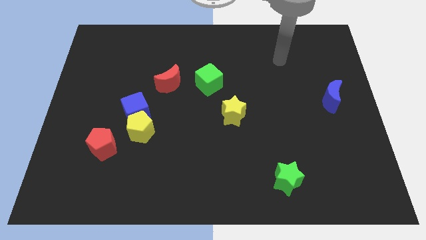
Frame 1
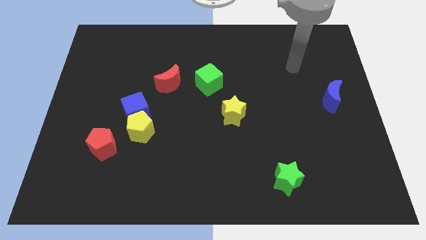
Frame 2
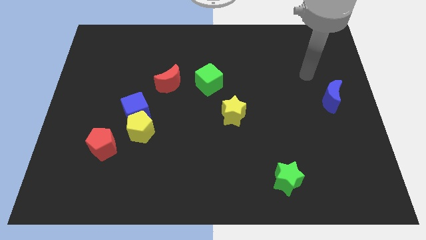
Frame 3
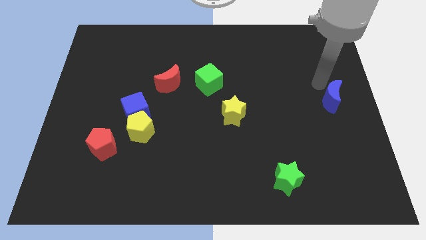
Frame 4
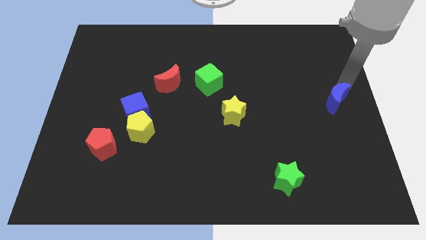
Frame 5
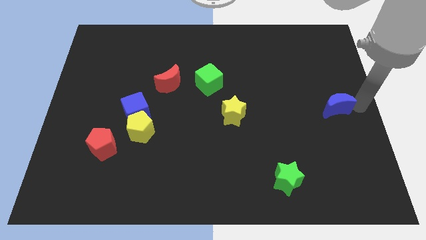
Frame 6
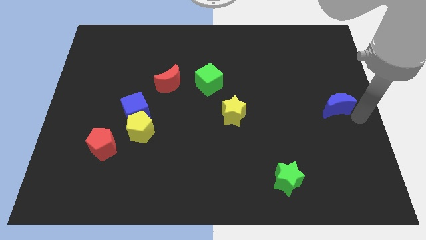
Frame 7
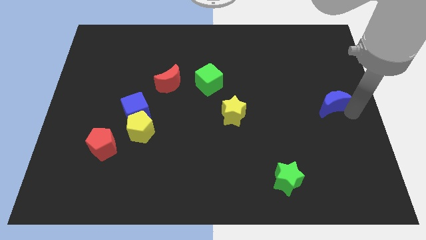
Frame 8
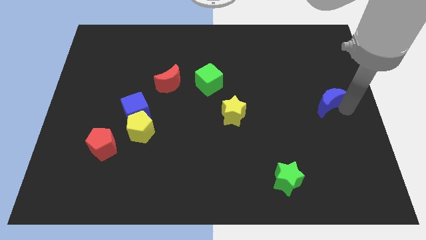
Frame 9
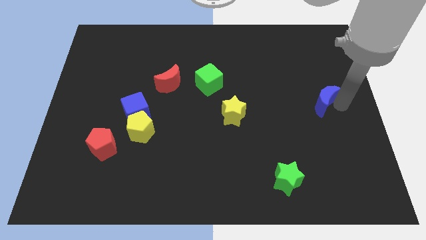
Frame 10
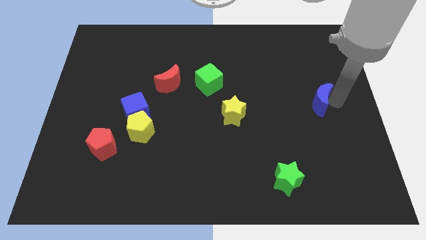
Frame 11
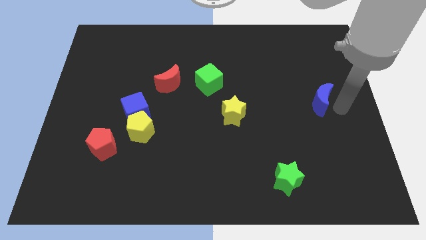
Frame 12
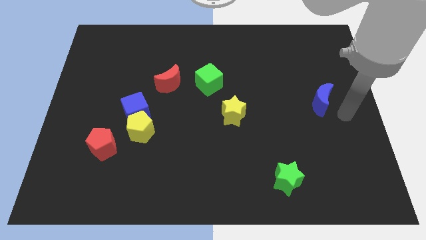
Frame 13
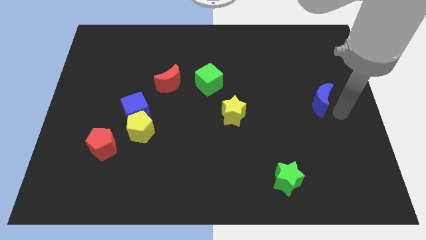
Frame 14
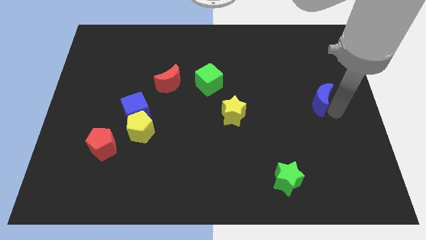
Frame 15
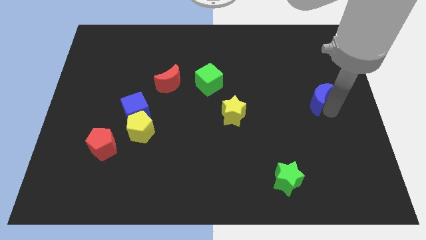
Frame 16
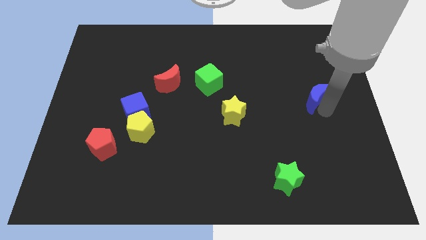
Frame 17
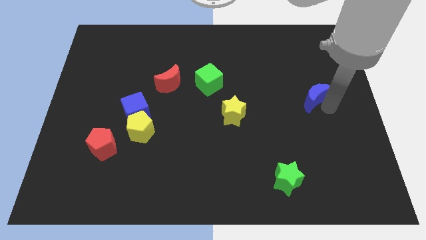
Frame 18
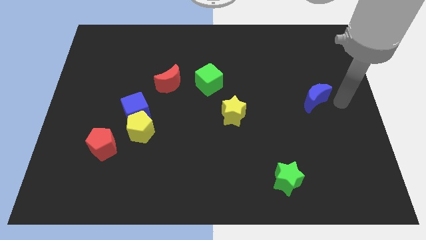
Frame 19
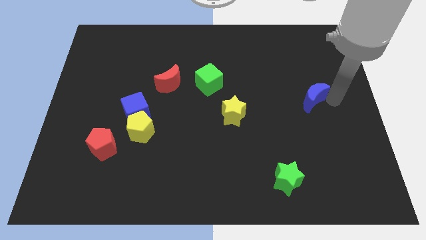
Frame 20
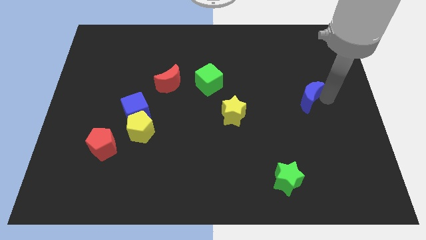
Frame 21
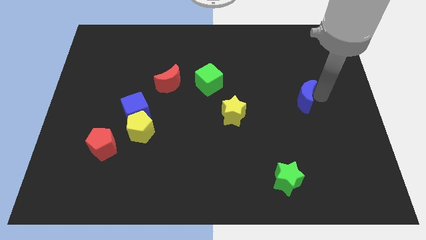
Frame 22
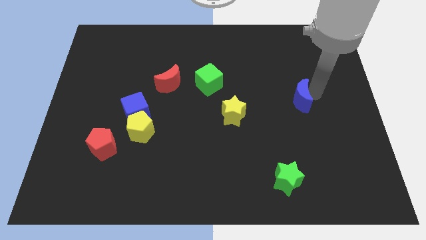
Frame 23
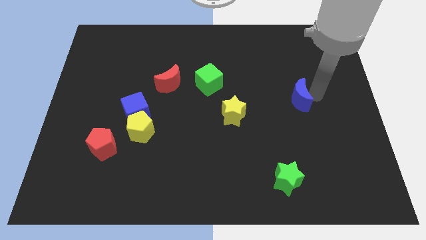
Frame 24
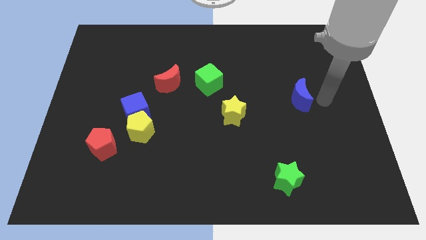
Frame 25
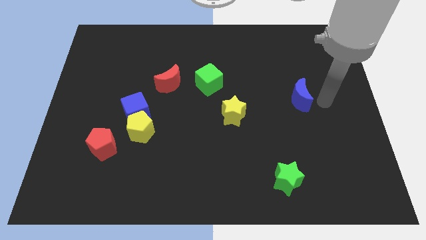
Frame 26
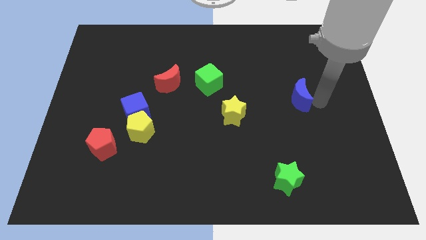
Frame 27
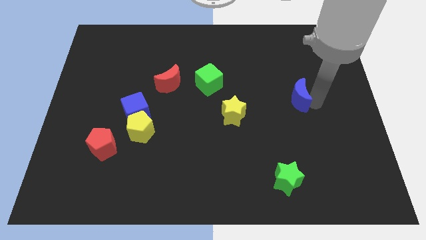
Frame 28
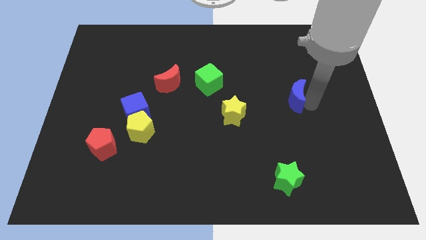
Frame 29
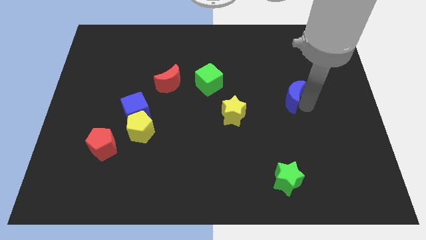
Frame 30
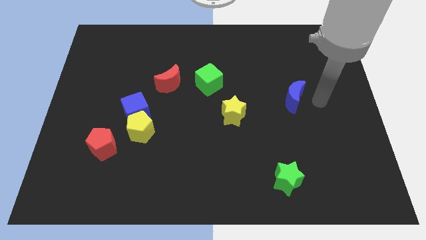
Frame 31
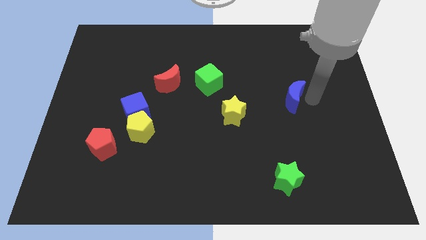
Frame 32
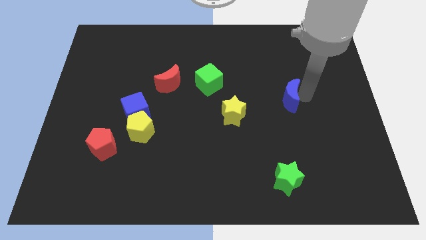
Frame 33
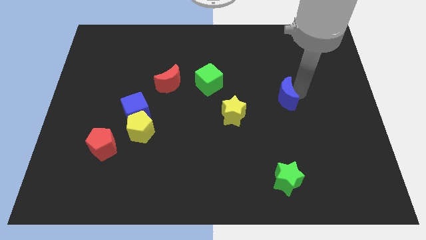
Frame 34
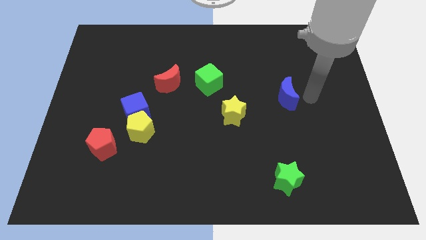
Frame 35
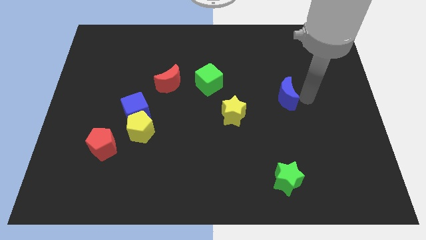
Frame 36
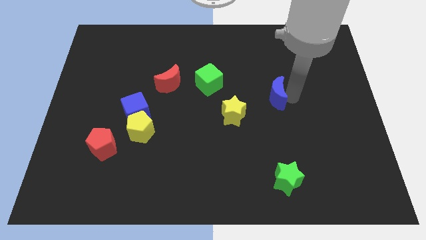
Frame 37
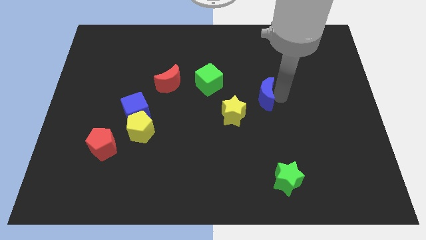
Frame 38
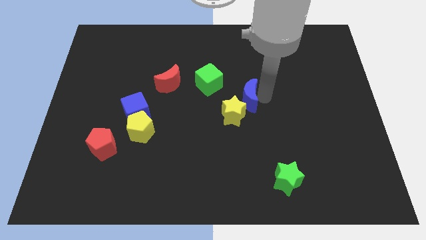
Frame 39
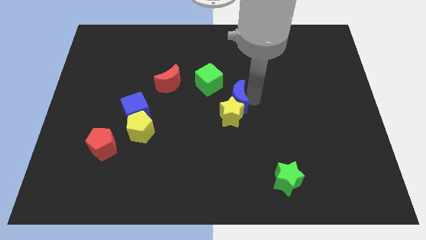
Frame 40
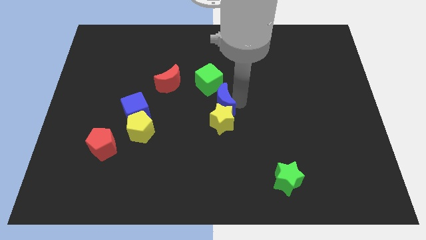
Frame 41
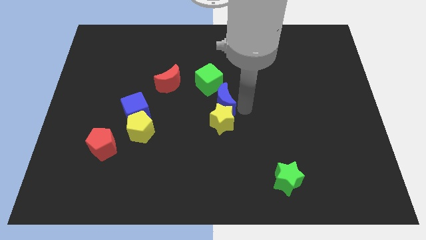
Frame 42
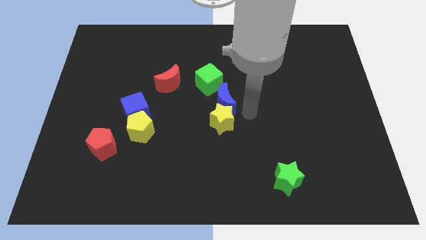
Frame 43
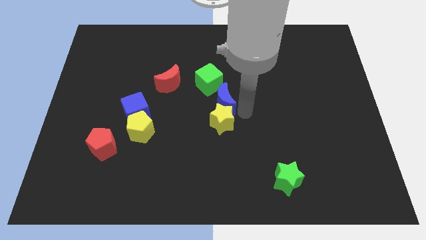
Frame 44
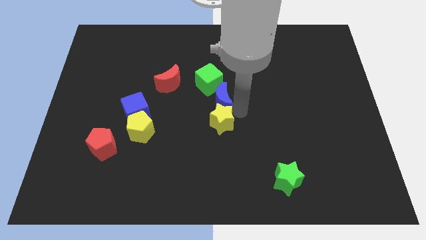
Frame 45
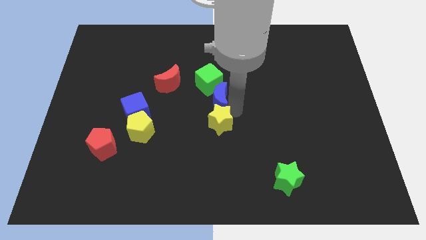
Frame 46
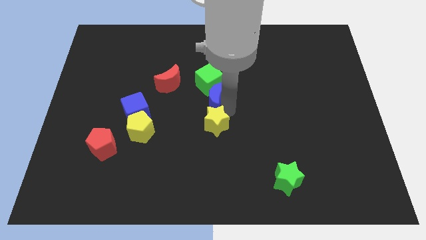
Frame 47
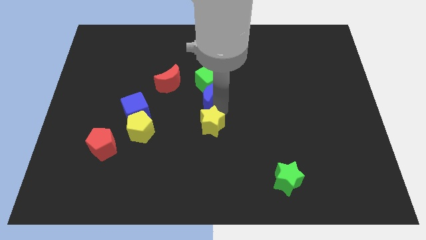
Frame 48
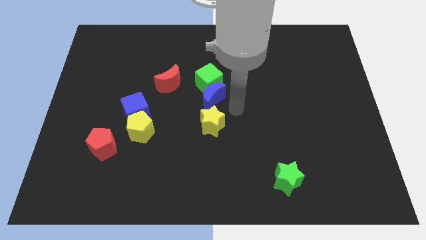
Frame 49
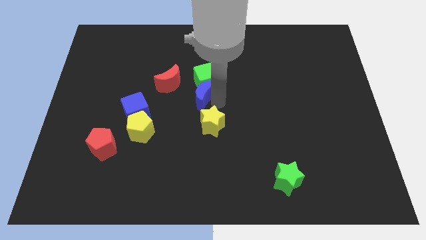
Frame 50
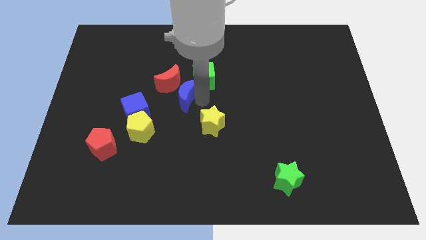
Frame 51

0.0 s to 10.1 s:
move the blue moon next to the red moon

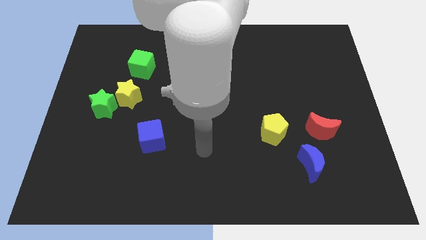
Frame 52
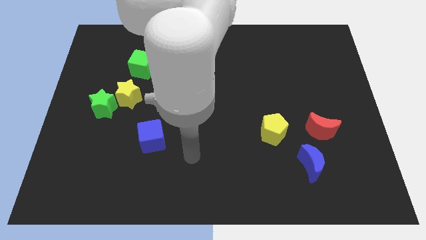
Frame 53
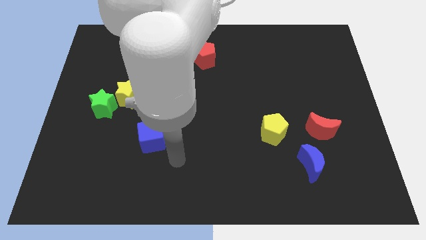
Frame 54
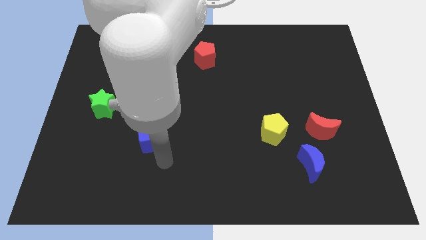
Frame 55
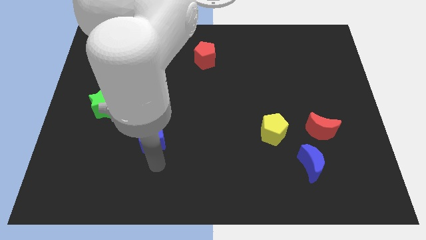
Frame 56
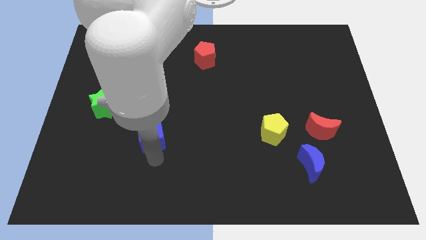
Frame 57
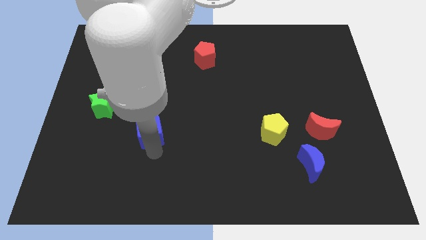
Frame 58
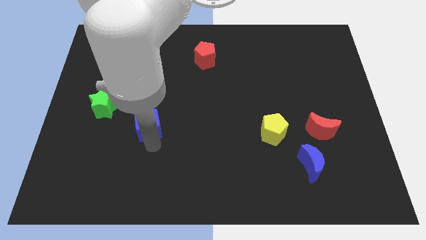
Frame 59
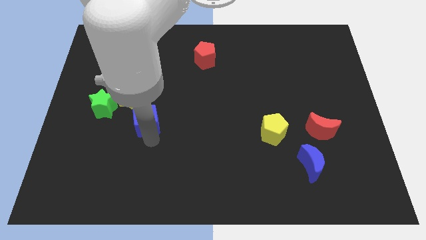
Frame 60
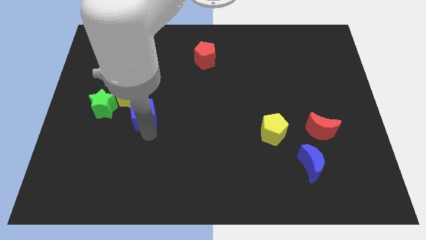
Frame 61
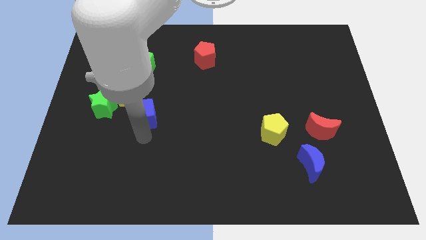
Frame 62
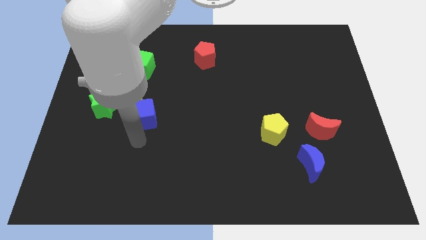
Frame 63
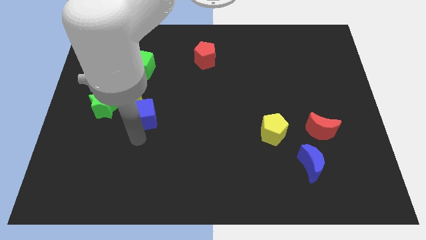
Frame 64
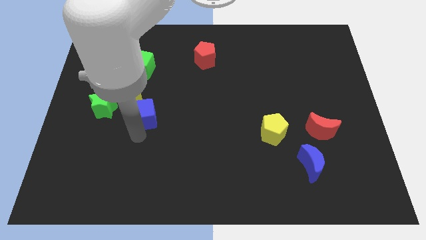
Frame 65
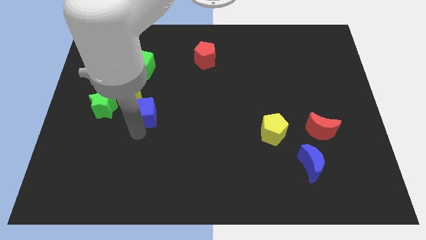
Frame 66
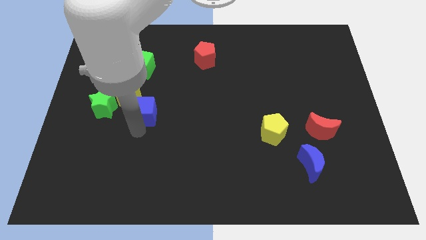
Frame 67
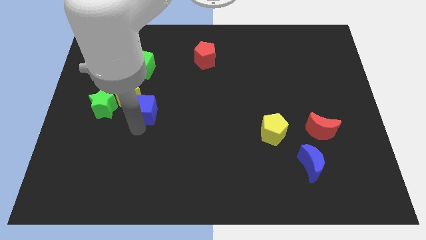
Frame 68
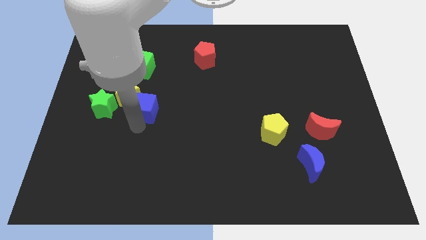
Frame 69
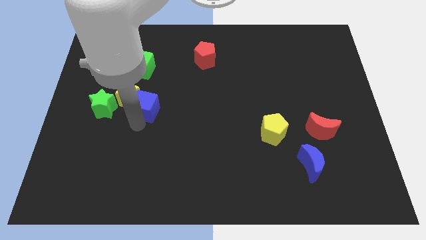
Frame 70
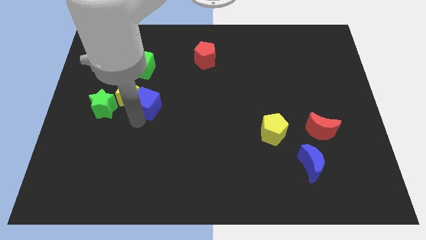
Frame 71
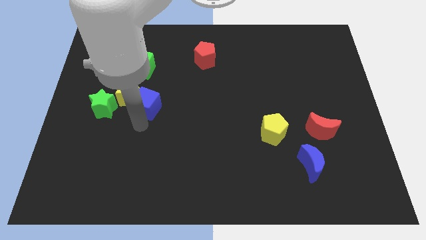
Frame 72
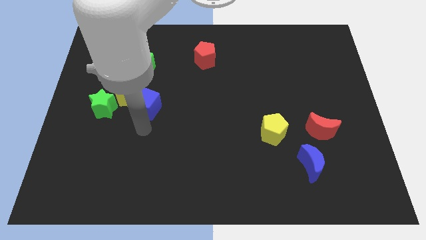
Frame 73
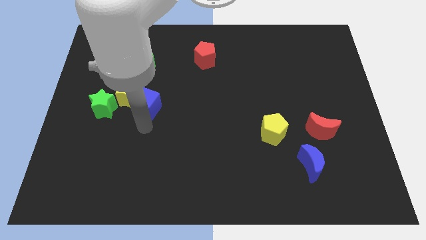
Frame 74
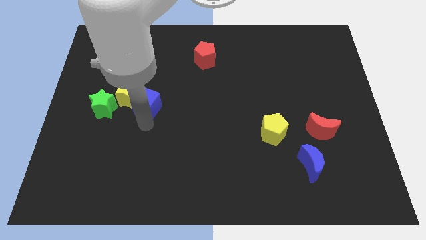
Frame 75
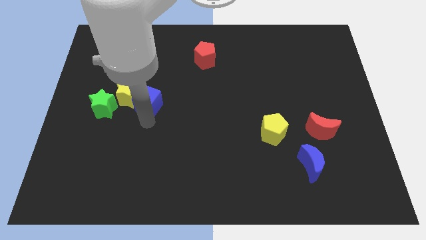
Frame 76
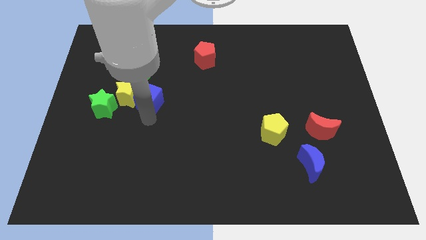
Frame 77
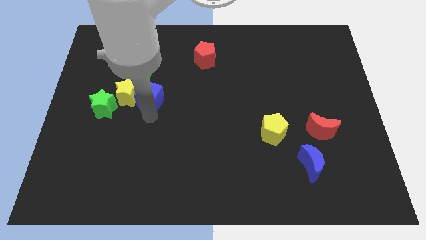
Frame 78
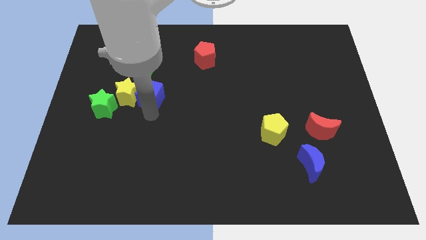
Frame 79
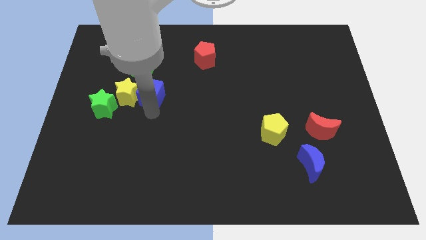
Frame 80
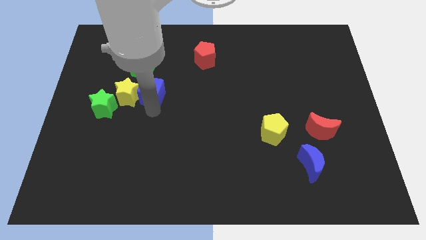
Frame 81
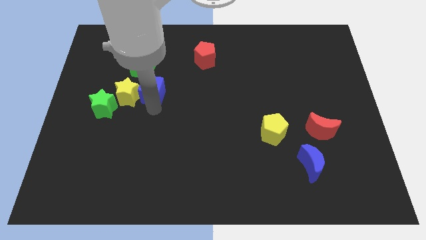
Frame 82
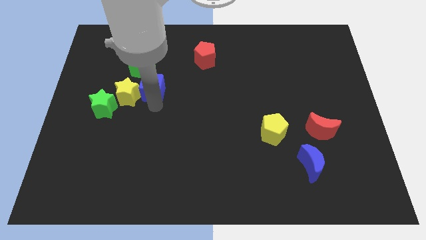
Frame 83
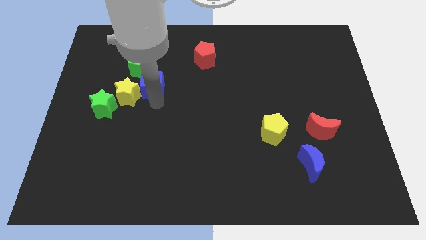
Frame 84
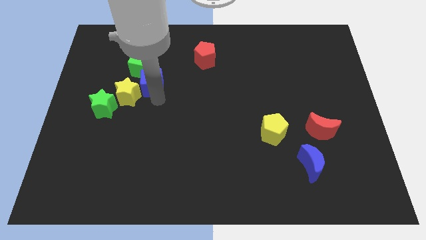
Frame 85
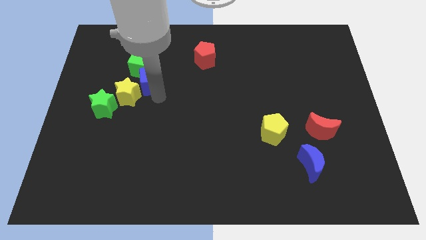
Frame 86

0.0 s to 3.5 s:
move the blue cube close to the green cube
